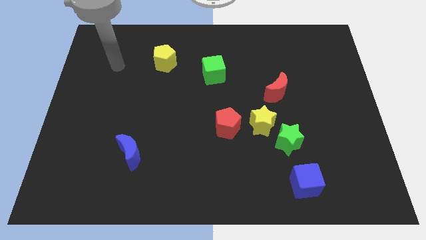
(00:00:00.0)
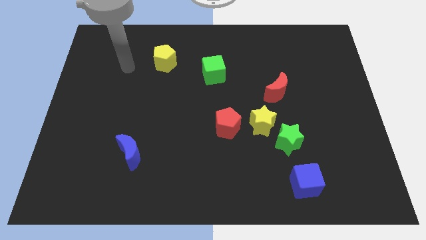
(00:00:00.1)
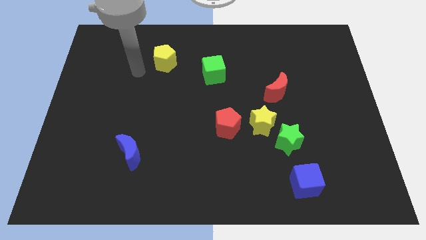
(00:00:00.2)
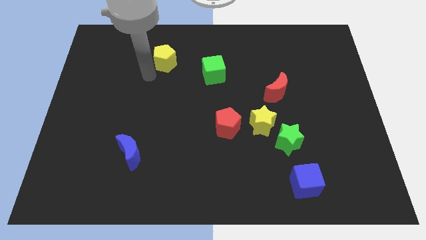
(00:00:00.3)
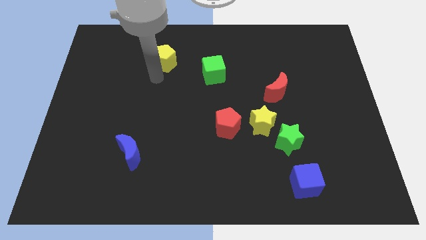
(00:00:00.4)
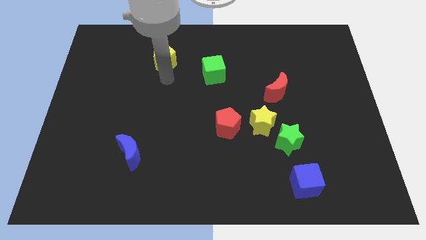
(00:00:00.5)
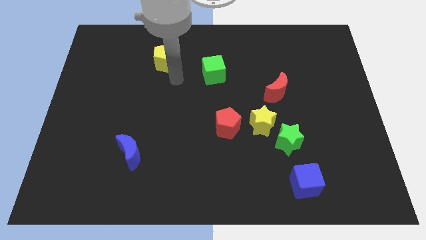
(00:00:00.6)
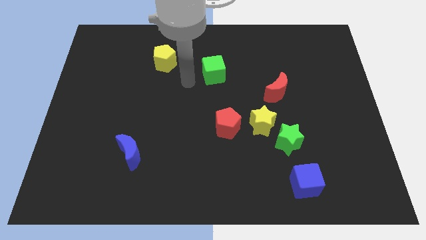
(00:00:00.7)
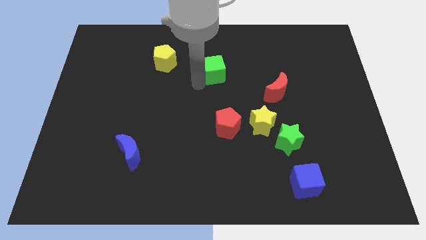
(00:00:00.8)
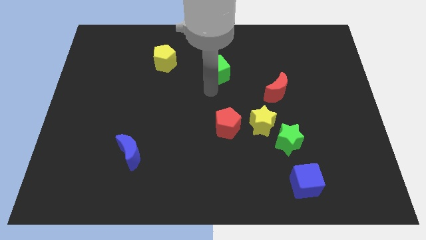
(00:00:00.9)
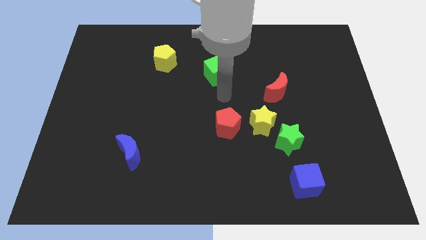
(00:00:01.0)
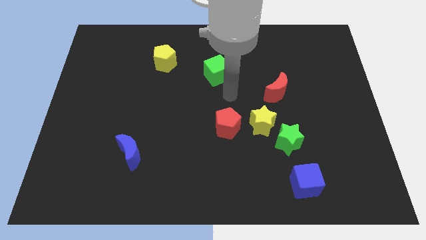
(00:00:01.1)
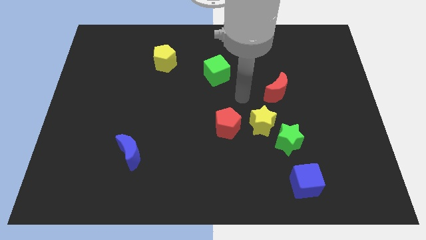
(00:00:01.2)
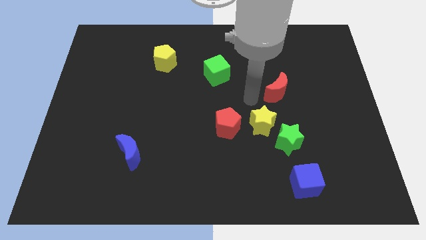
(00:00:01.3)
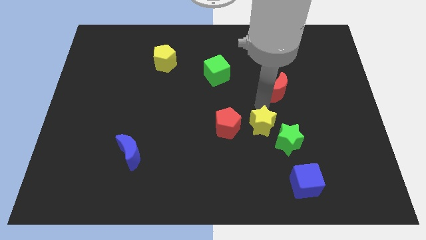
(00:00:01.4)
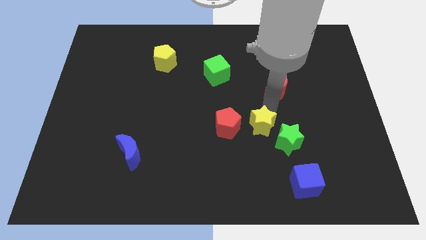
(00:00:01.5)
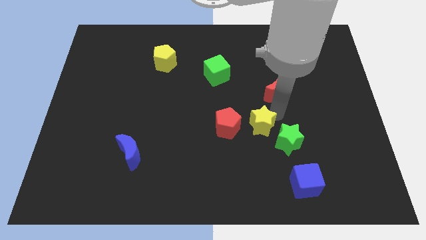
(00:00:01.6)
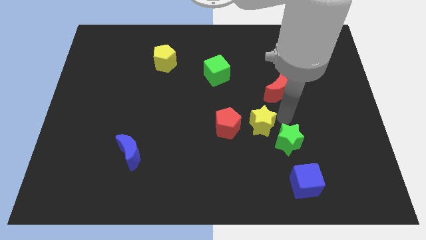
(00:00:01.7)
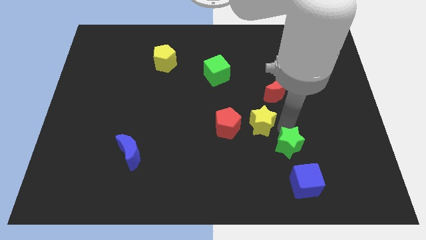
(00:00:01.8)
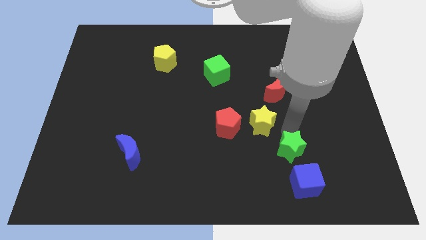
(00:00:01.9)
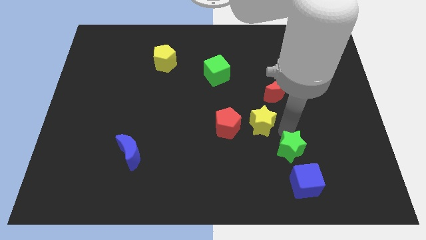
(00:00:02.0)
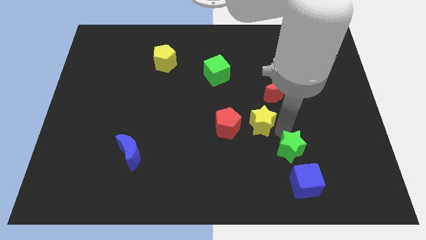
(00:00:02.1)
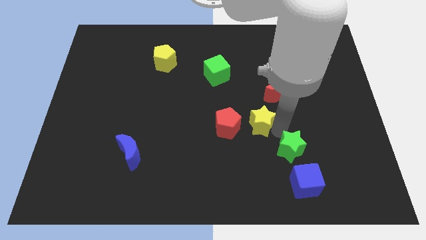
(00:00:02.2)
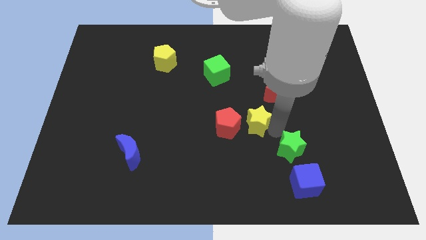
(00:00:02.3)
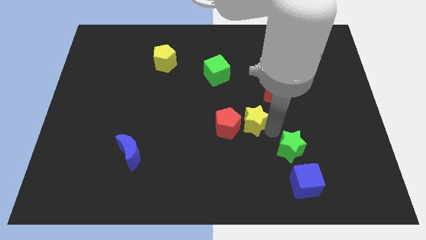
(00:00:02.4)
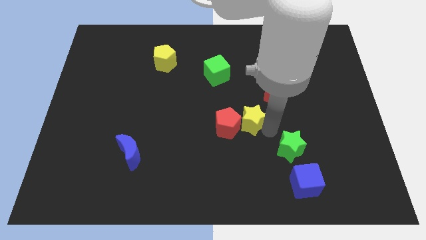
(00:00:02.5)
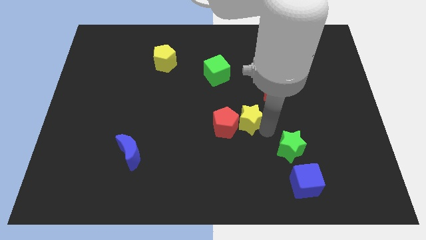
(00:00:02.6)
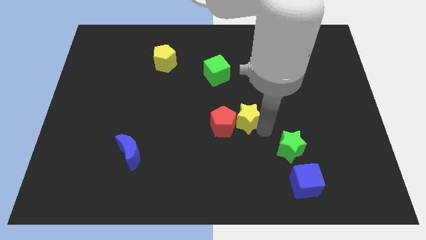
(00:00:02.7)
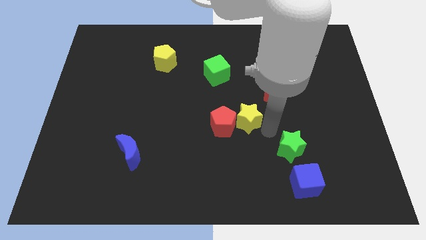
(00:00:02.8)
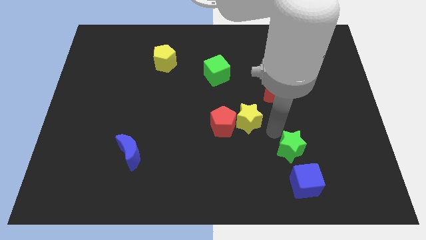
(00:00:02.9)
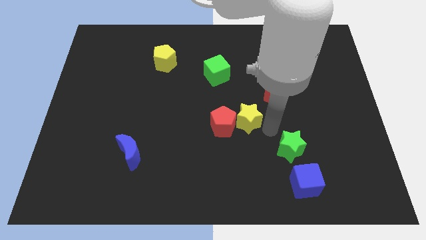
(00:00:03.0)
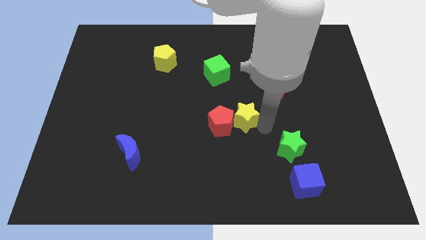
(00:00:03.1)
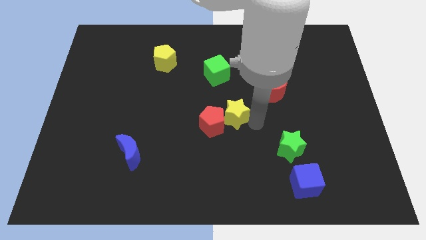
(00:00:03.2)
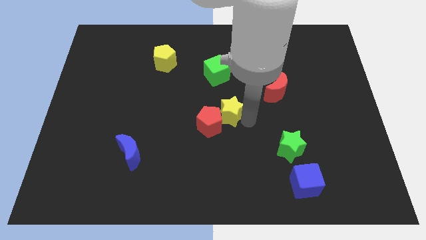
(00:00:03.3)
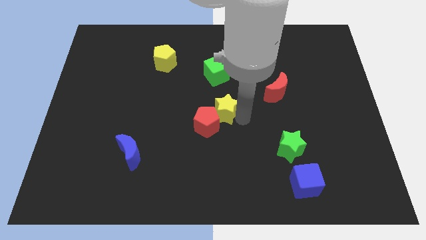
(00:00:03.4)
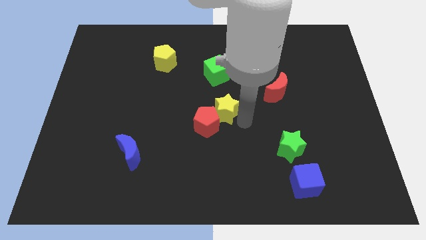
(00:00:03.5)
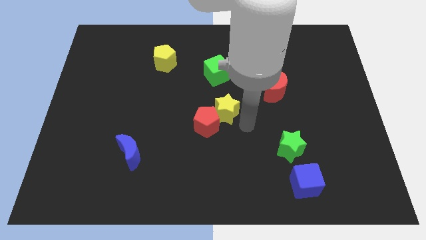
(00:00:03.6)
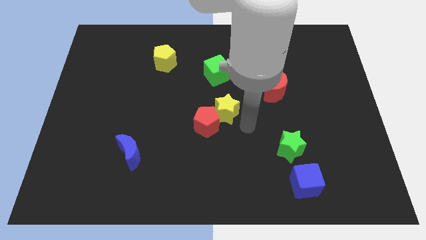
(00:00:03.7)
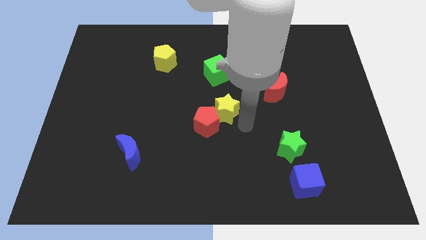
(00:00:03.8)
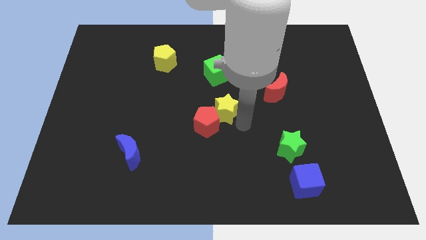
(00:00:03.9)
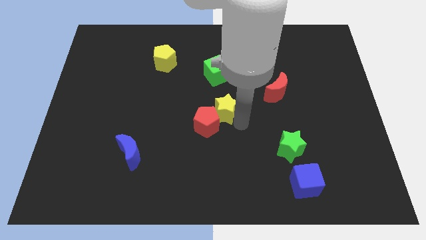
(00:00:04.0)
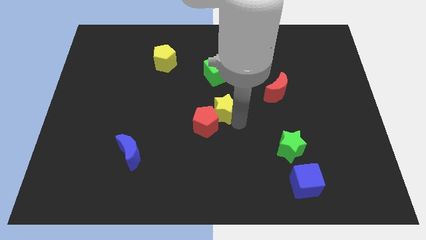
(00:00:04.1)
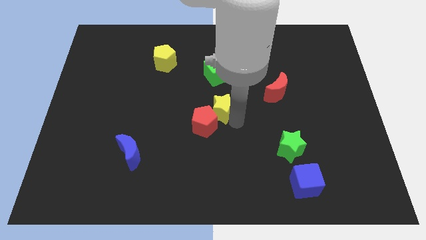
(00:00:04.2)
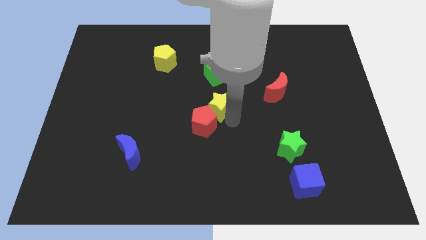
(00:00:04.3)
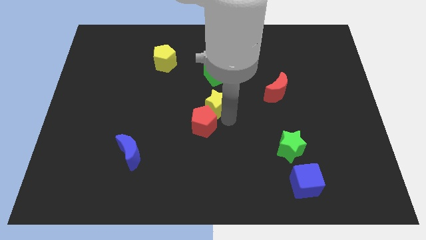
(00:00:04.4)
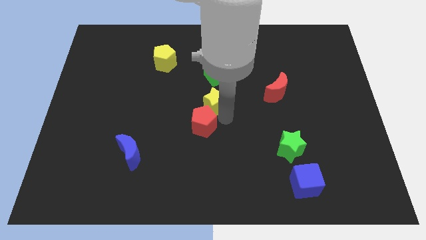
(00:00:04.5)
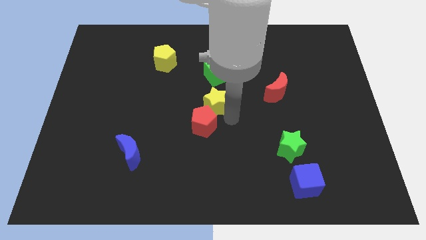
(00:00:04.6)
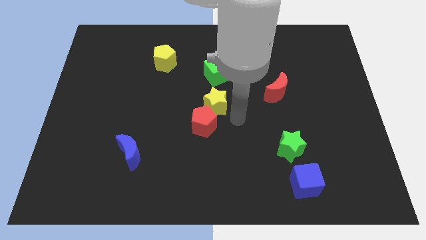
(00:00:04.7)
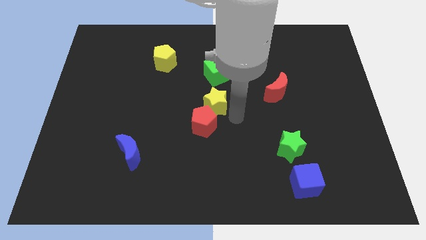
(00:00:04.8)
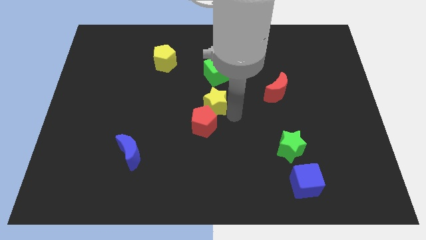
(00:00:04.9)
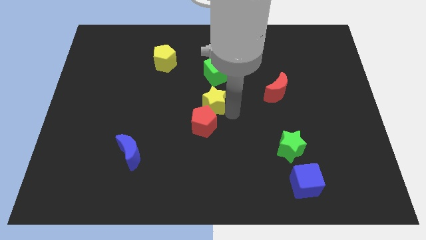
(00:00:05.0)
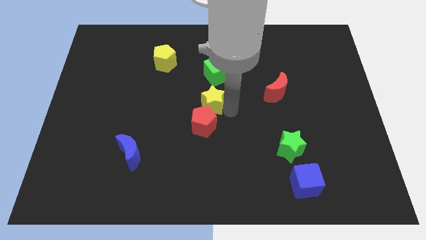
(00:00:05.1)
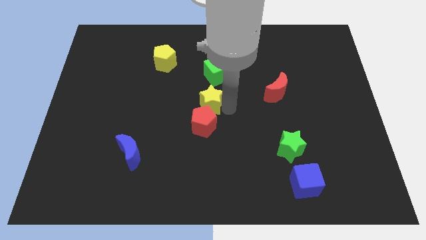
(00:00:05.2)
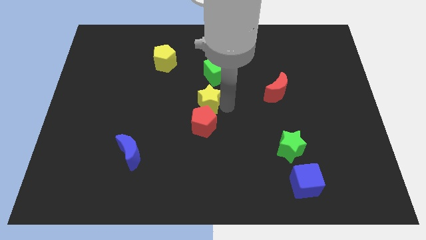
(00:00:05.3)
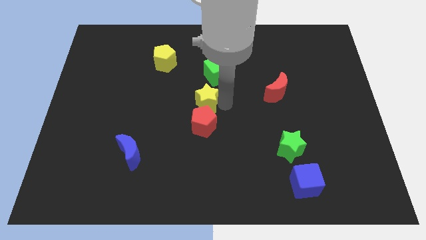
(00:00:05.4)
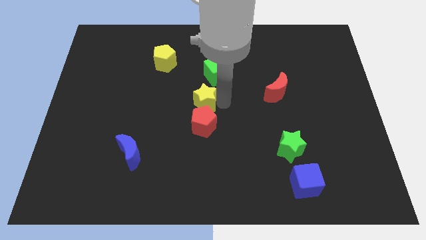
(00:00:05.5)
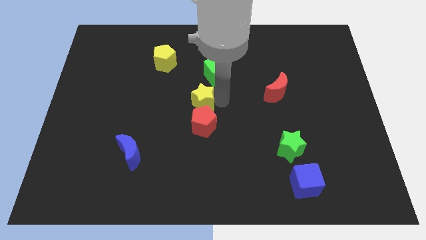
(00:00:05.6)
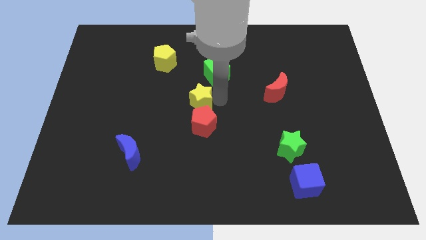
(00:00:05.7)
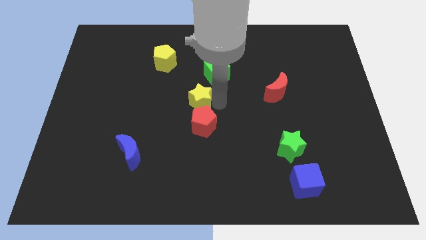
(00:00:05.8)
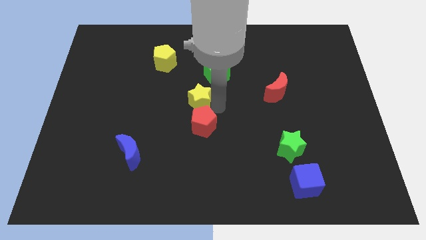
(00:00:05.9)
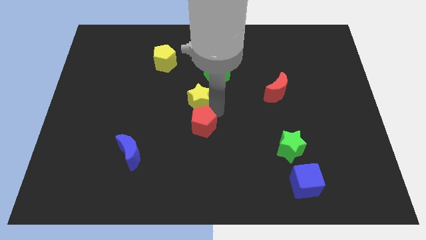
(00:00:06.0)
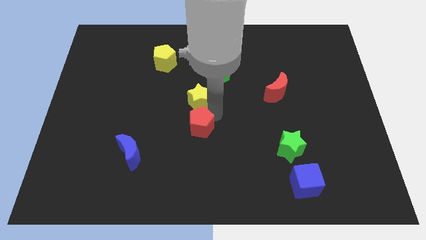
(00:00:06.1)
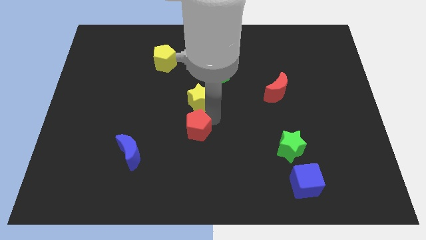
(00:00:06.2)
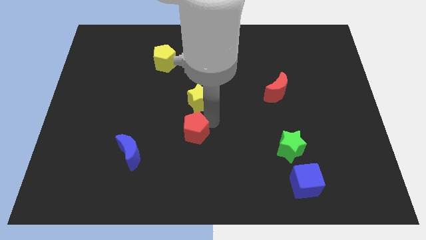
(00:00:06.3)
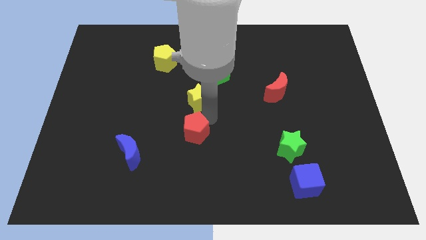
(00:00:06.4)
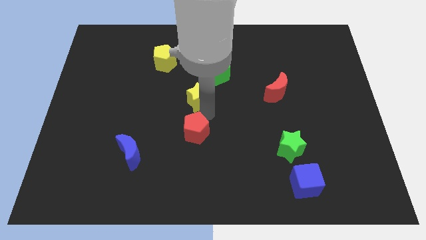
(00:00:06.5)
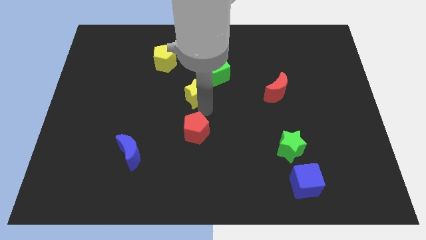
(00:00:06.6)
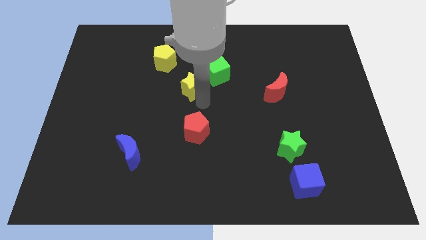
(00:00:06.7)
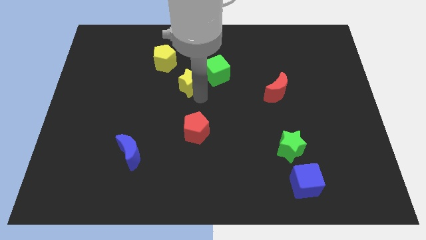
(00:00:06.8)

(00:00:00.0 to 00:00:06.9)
slide the yellow star to the left of the green cube

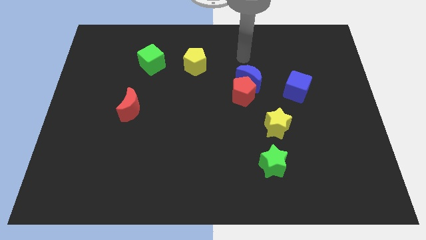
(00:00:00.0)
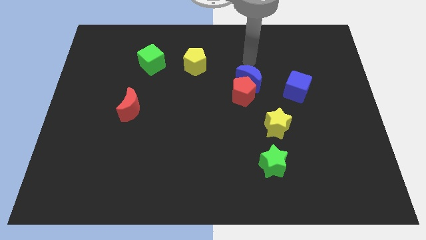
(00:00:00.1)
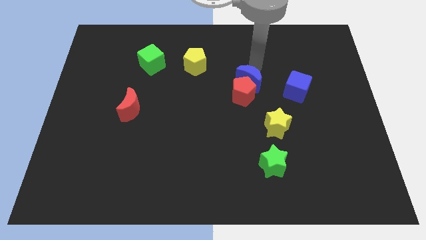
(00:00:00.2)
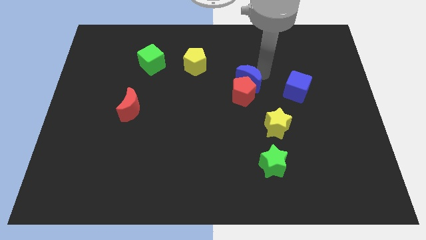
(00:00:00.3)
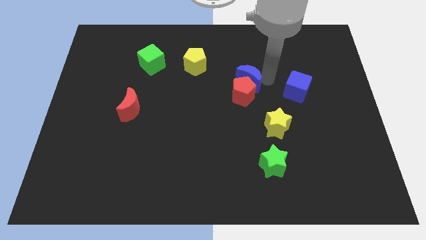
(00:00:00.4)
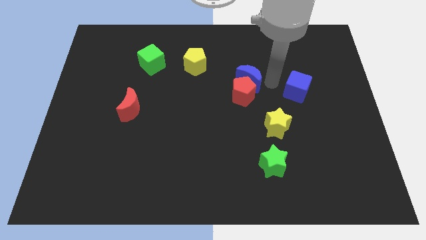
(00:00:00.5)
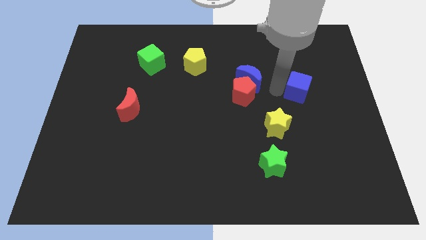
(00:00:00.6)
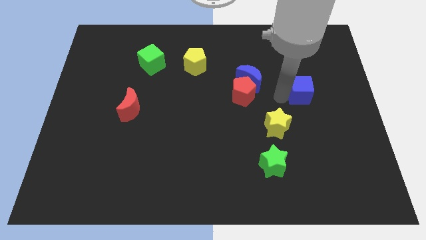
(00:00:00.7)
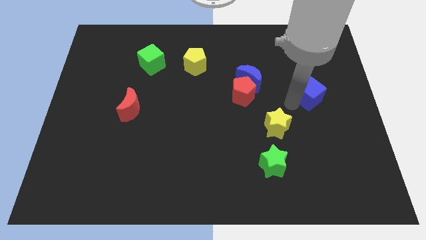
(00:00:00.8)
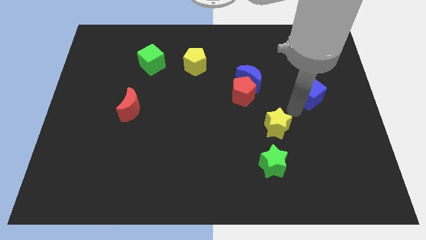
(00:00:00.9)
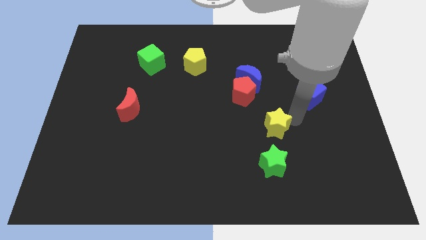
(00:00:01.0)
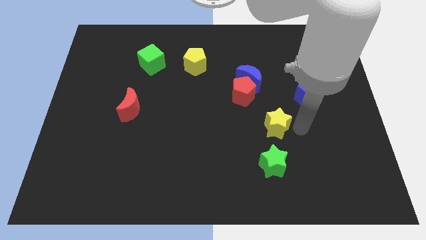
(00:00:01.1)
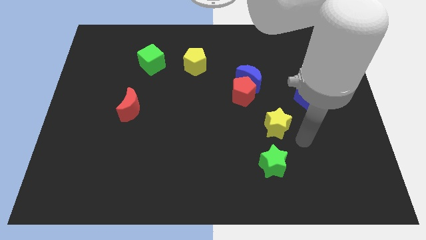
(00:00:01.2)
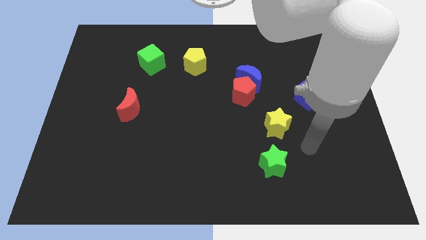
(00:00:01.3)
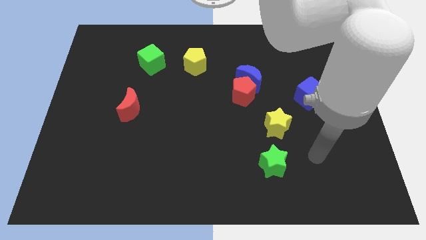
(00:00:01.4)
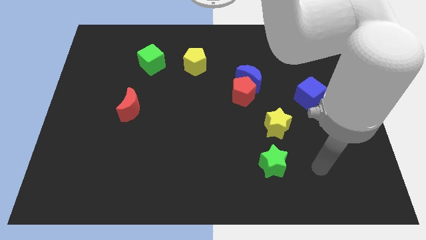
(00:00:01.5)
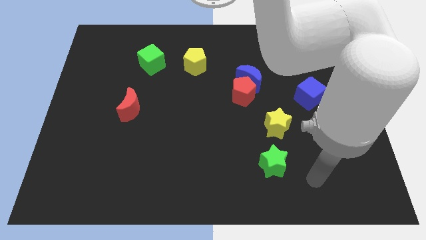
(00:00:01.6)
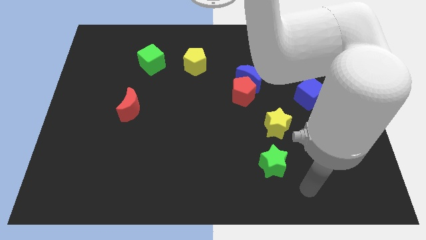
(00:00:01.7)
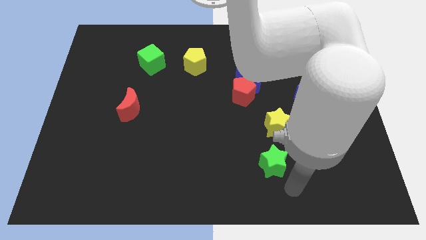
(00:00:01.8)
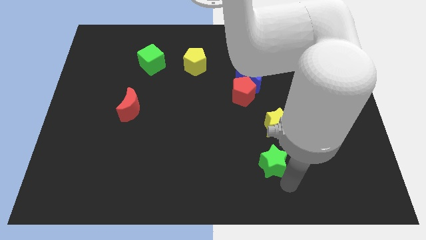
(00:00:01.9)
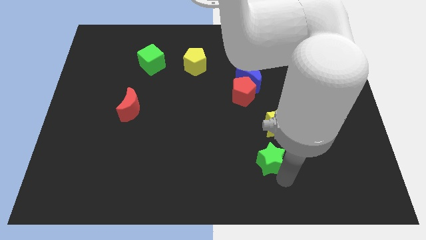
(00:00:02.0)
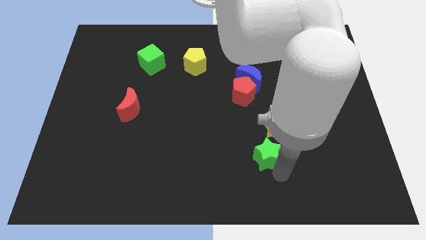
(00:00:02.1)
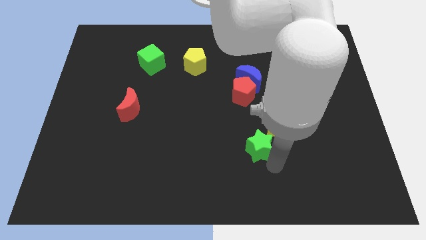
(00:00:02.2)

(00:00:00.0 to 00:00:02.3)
move the green star below the red pentagon
